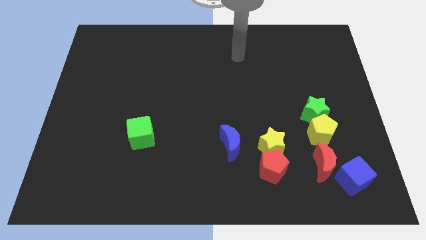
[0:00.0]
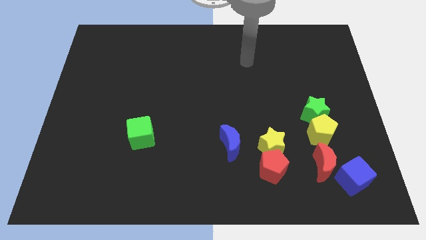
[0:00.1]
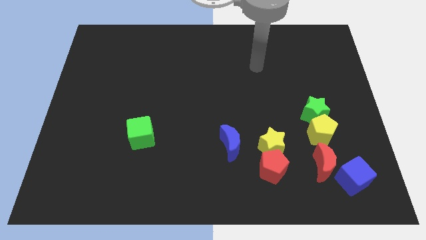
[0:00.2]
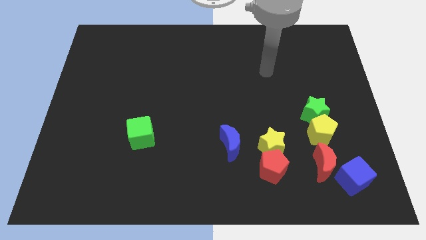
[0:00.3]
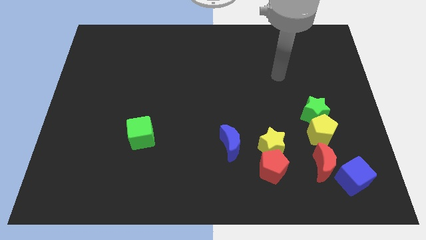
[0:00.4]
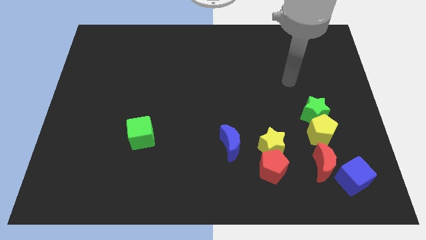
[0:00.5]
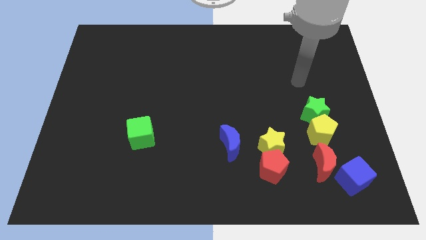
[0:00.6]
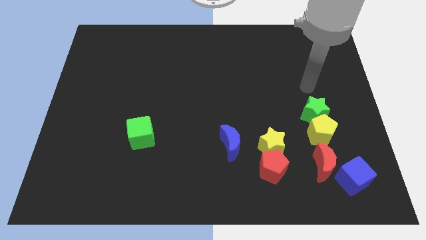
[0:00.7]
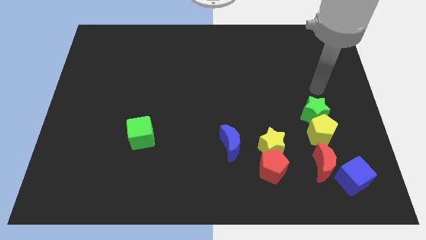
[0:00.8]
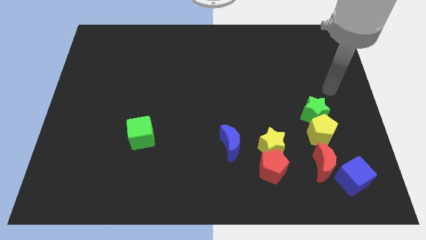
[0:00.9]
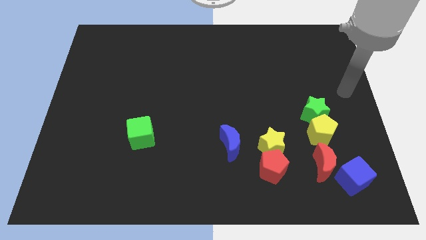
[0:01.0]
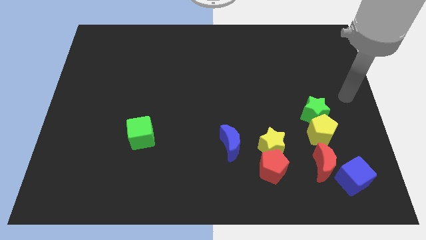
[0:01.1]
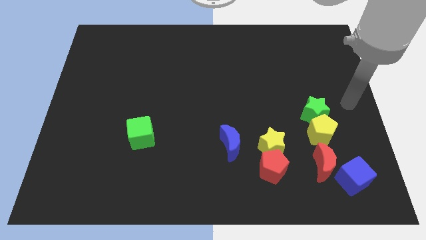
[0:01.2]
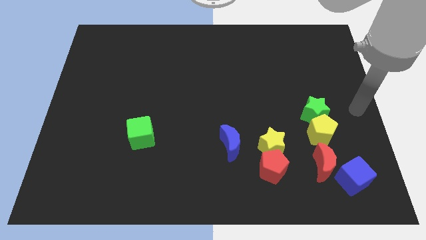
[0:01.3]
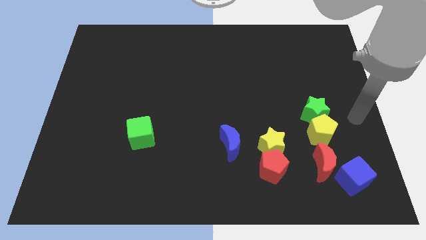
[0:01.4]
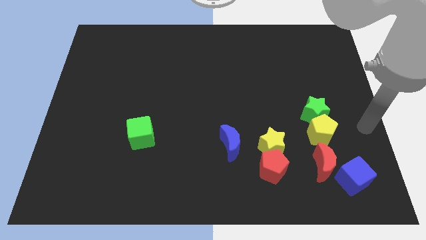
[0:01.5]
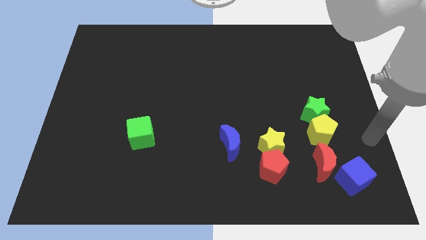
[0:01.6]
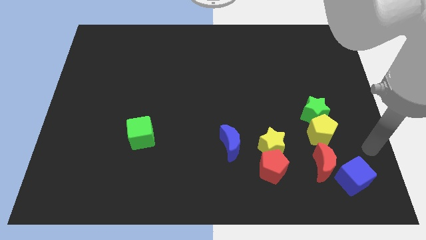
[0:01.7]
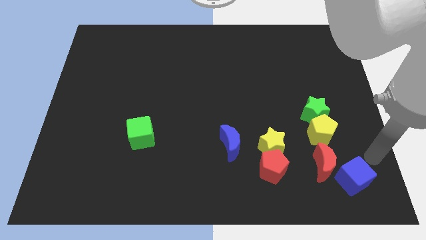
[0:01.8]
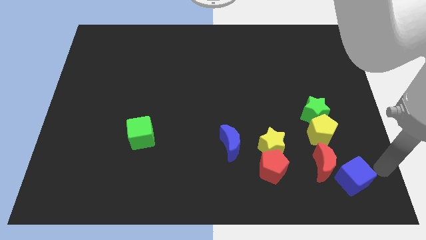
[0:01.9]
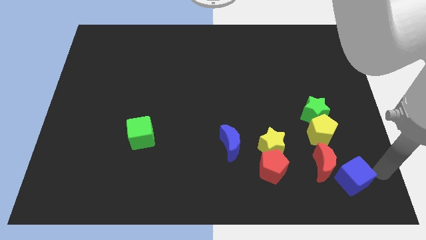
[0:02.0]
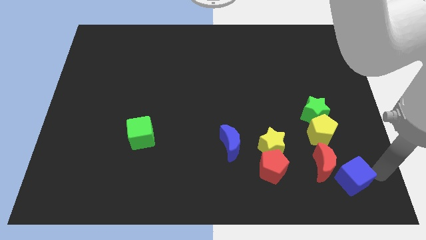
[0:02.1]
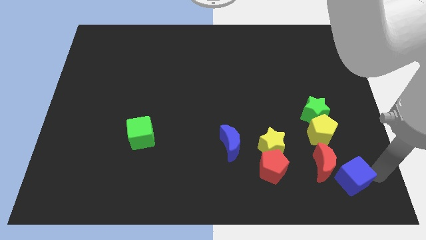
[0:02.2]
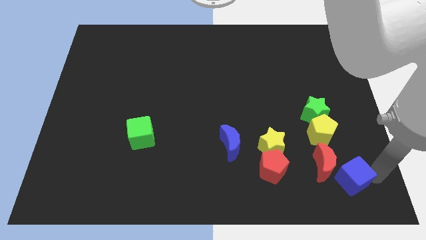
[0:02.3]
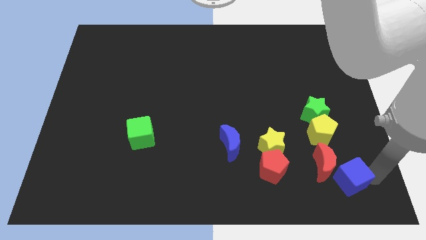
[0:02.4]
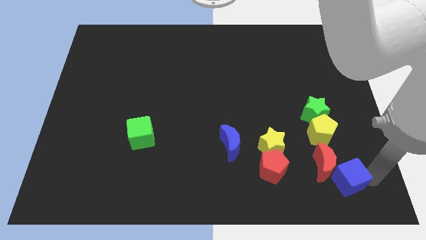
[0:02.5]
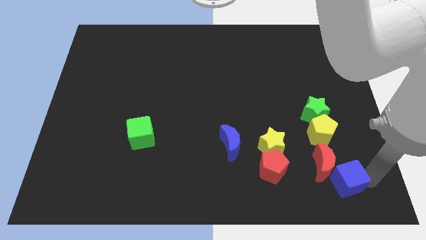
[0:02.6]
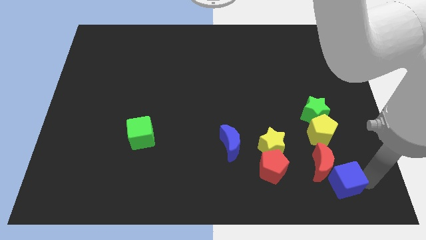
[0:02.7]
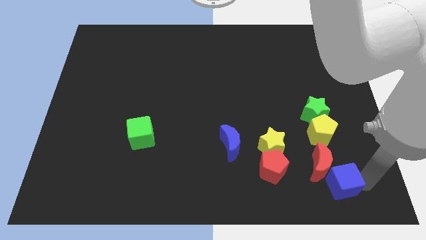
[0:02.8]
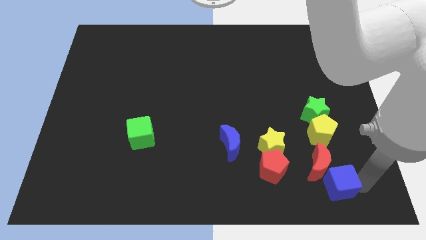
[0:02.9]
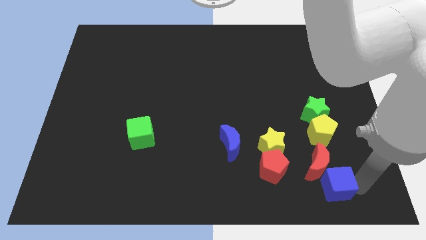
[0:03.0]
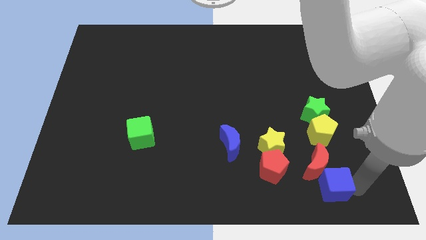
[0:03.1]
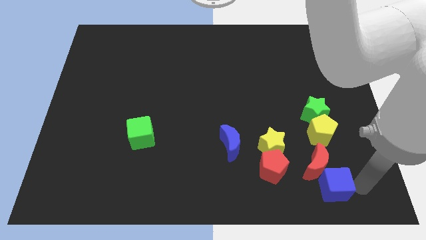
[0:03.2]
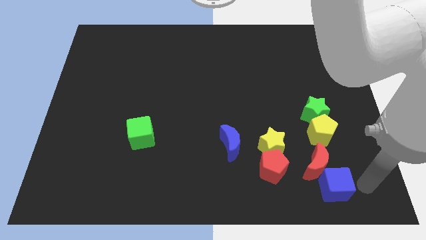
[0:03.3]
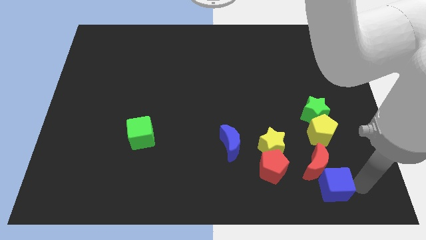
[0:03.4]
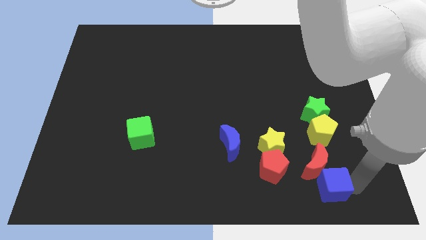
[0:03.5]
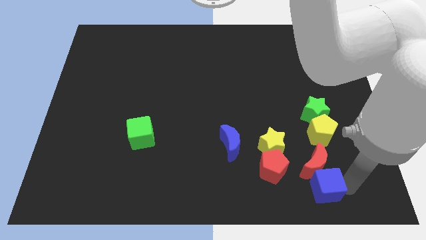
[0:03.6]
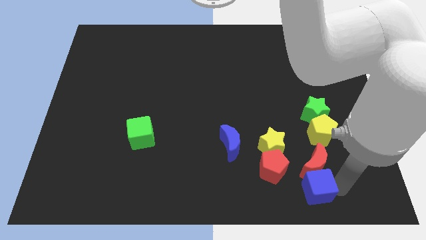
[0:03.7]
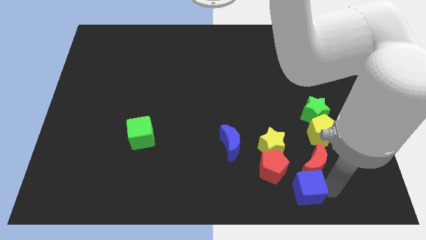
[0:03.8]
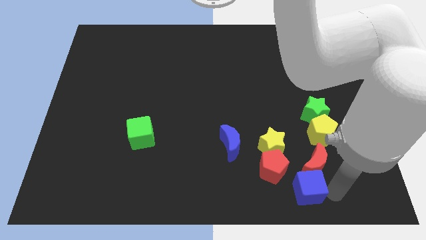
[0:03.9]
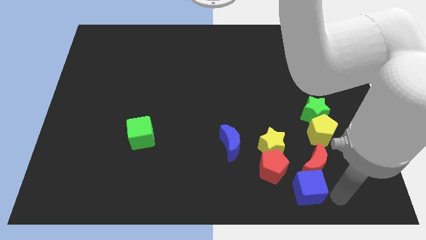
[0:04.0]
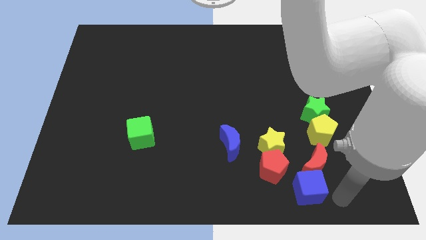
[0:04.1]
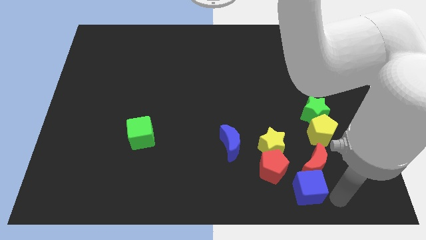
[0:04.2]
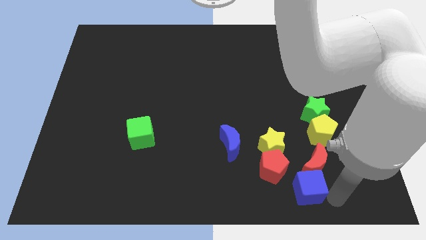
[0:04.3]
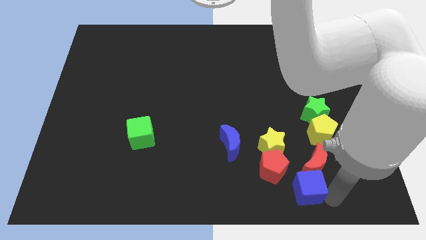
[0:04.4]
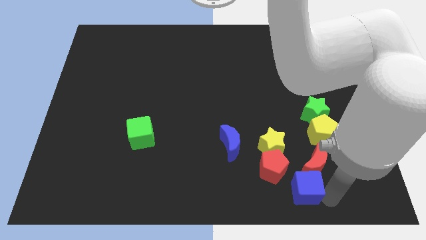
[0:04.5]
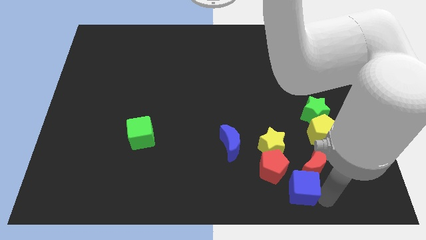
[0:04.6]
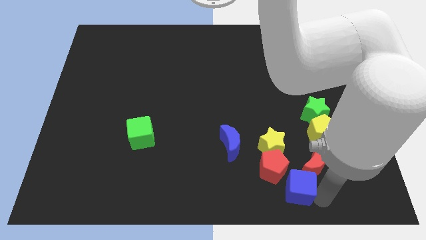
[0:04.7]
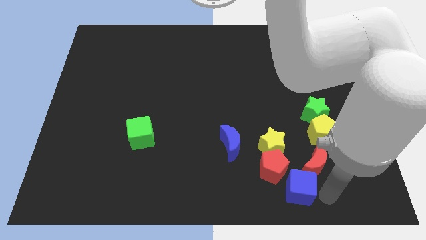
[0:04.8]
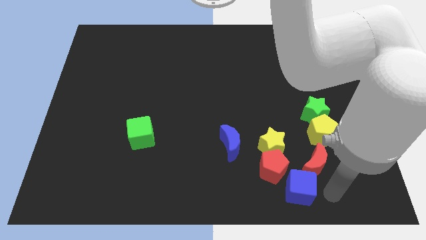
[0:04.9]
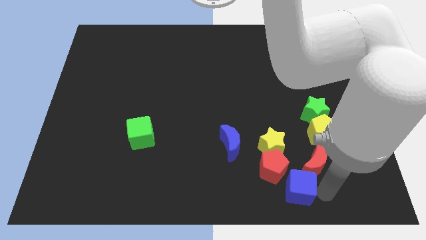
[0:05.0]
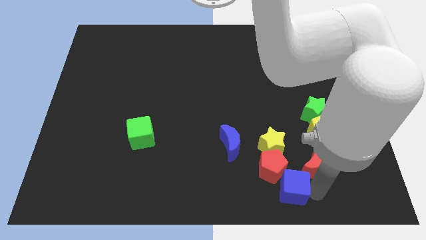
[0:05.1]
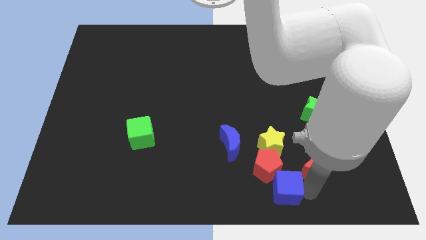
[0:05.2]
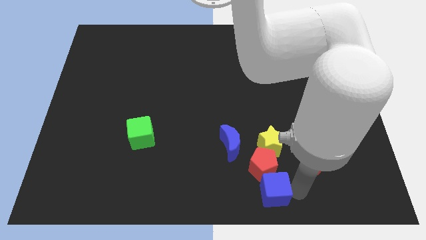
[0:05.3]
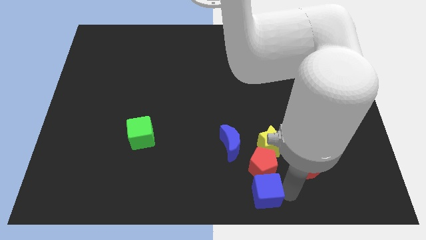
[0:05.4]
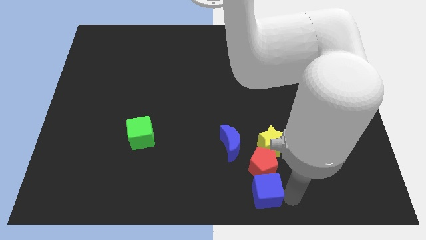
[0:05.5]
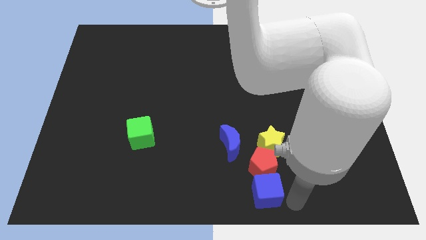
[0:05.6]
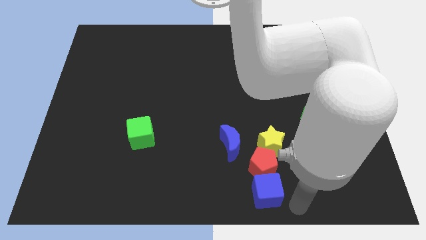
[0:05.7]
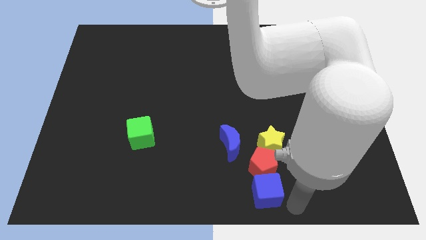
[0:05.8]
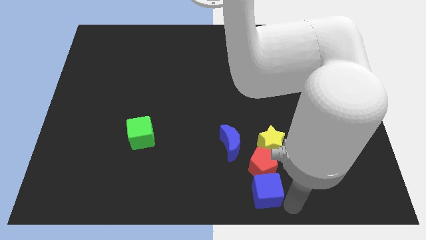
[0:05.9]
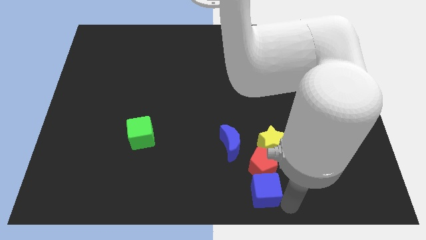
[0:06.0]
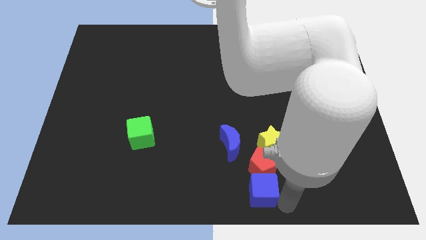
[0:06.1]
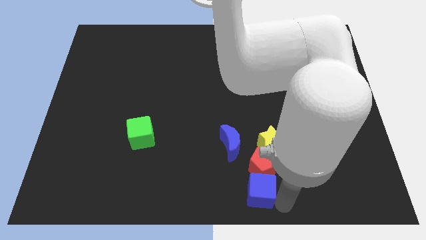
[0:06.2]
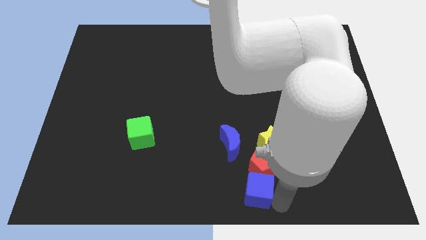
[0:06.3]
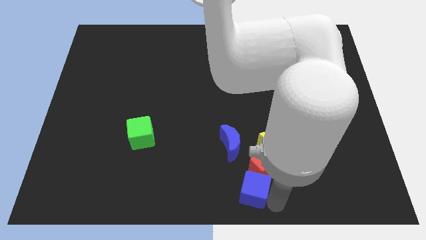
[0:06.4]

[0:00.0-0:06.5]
move the blue cube to the left

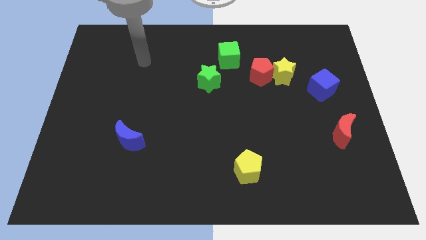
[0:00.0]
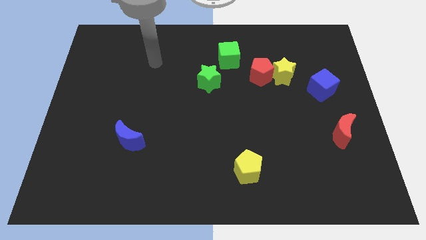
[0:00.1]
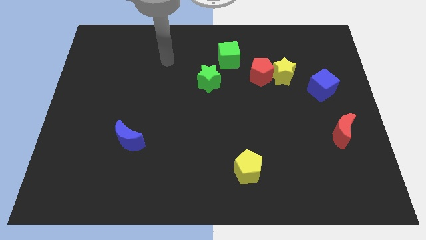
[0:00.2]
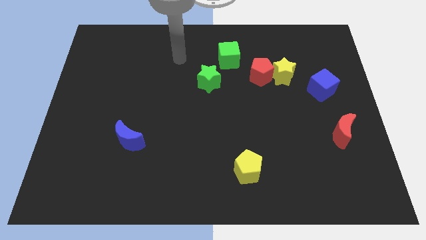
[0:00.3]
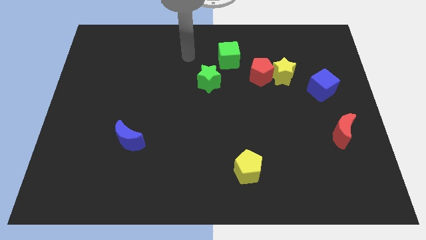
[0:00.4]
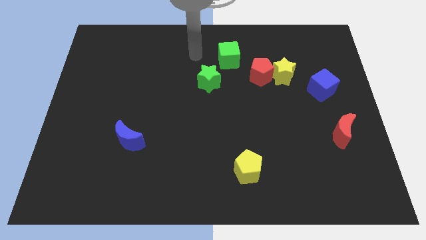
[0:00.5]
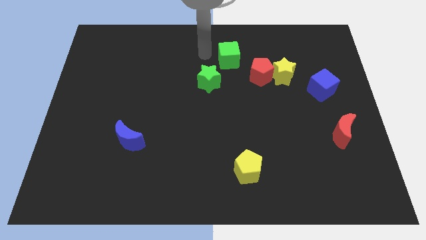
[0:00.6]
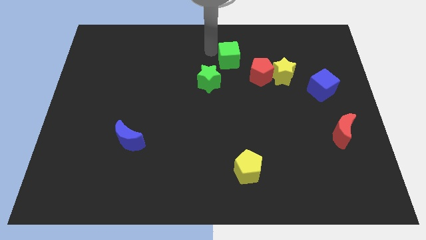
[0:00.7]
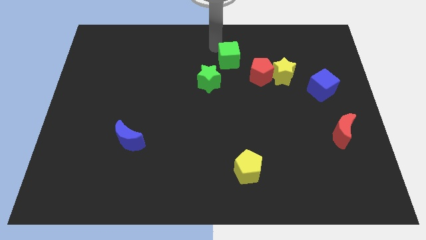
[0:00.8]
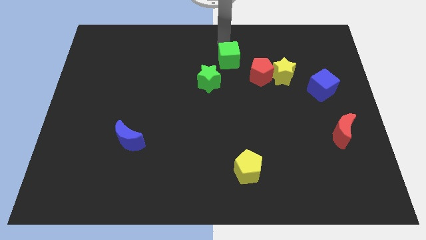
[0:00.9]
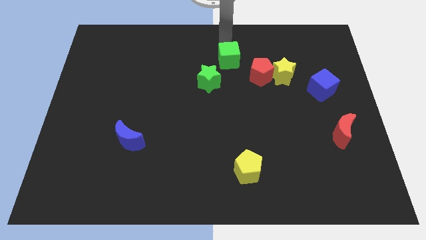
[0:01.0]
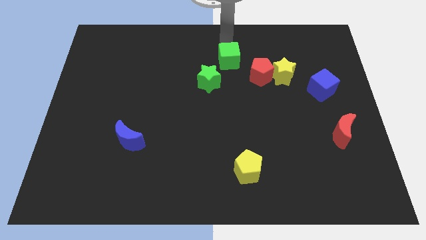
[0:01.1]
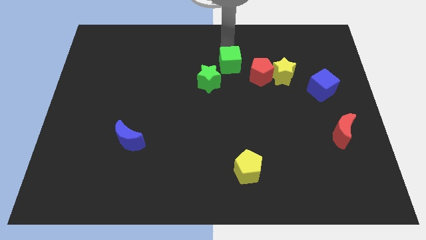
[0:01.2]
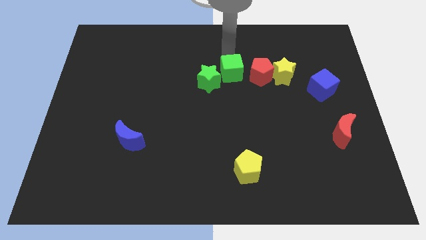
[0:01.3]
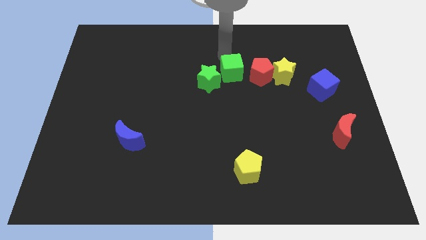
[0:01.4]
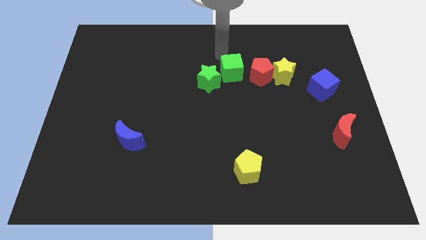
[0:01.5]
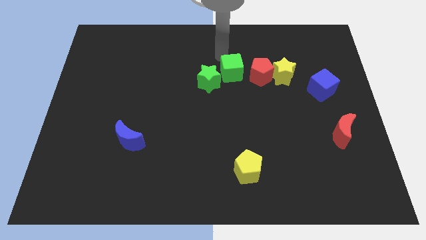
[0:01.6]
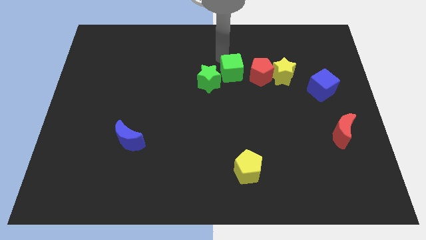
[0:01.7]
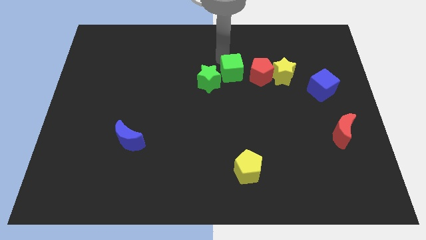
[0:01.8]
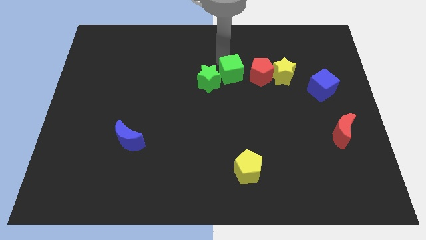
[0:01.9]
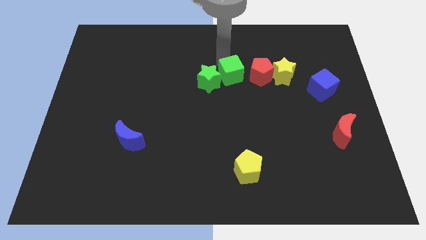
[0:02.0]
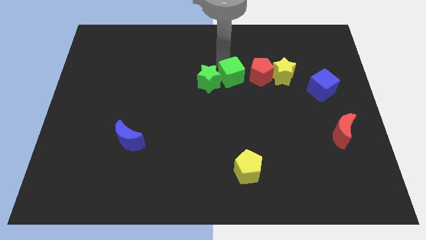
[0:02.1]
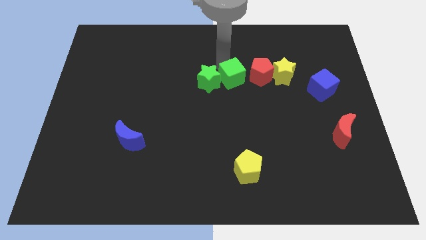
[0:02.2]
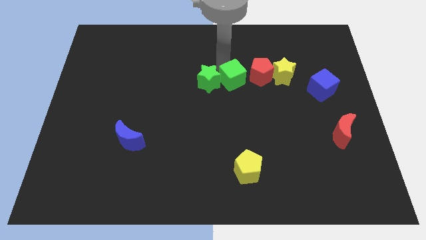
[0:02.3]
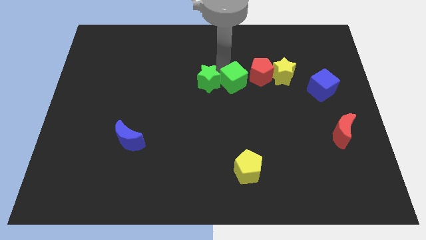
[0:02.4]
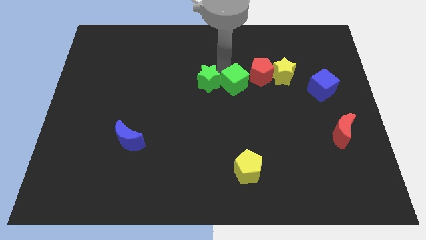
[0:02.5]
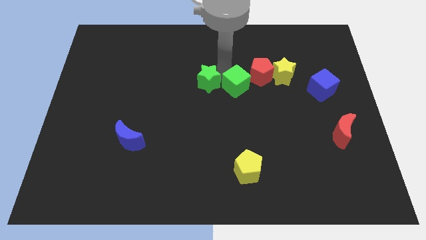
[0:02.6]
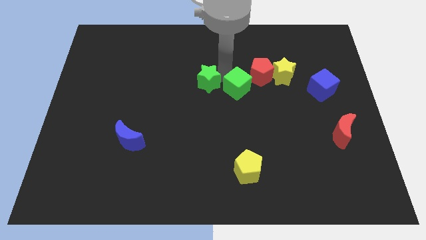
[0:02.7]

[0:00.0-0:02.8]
slightly slide the green cube downwards and then right
